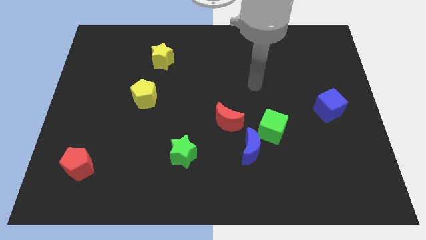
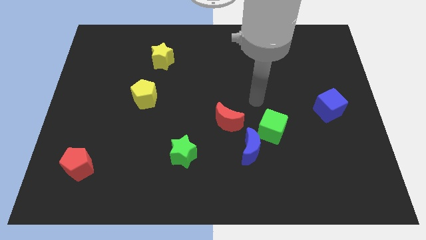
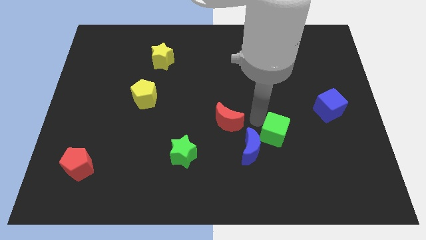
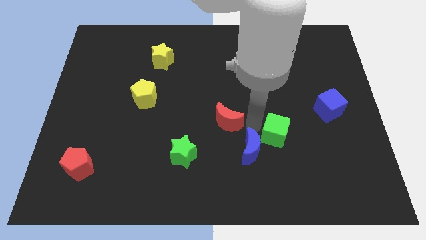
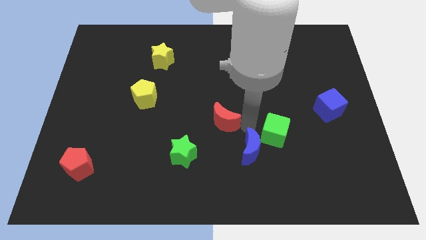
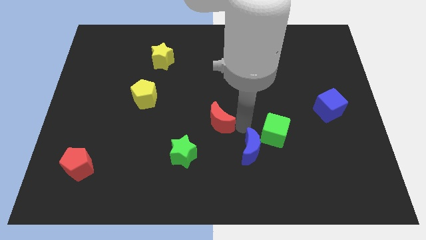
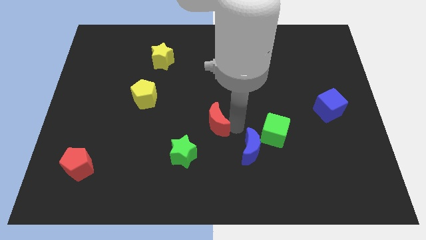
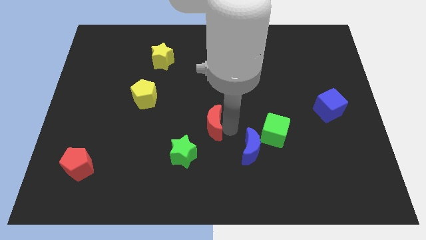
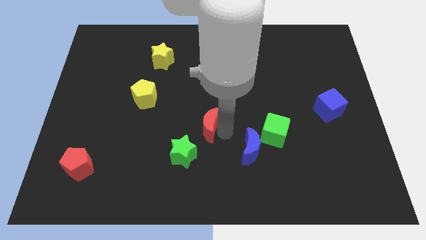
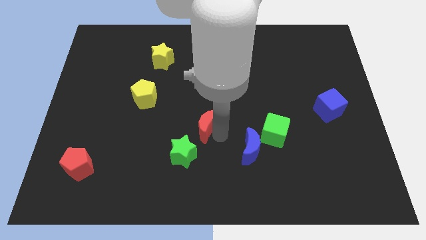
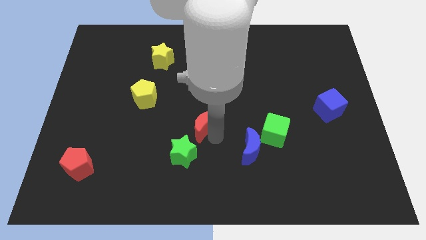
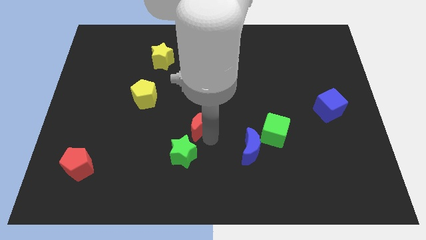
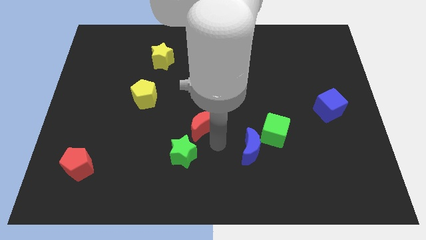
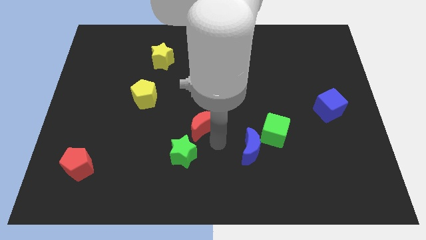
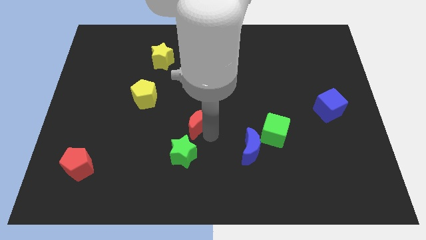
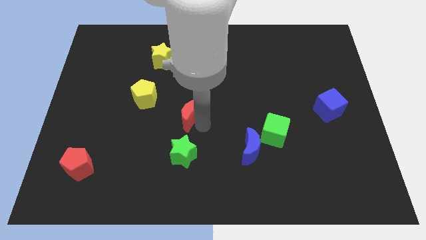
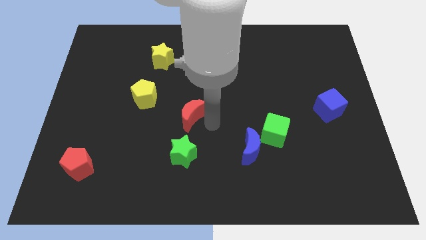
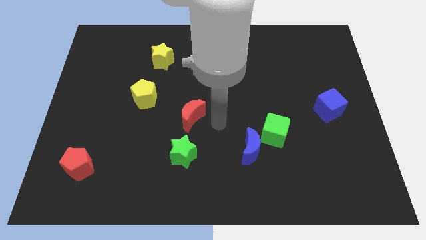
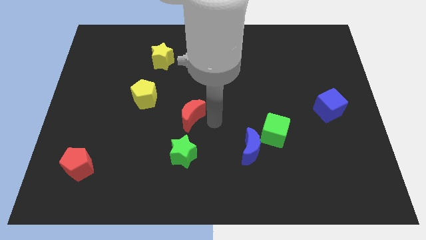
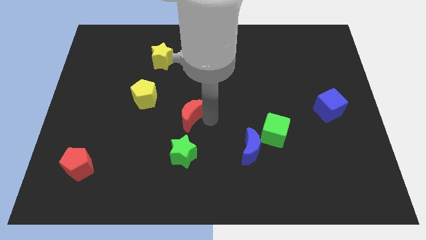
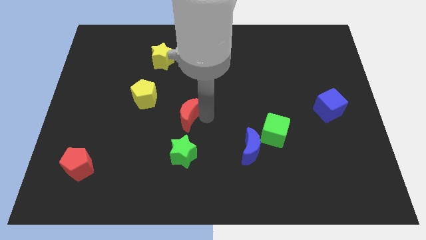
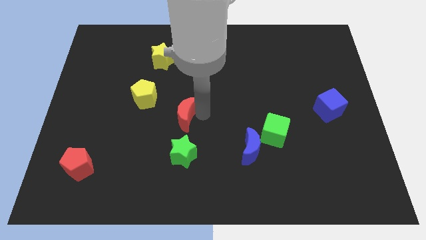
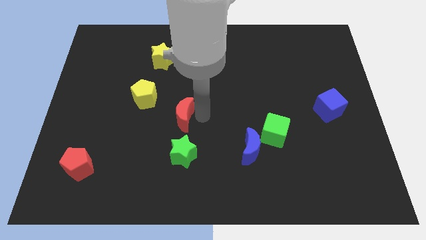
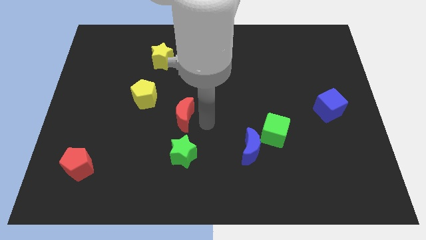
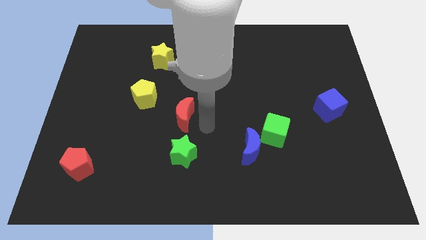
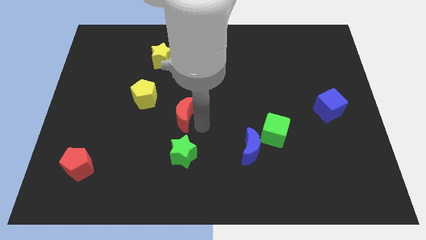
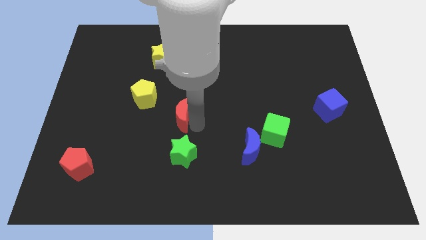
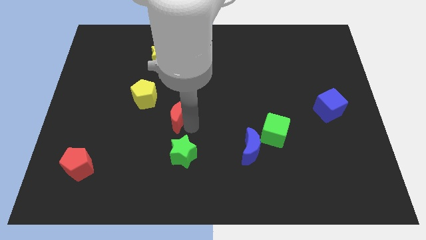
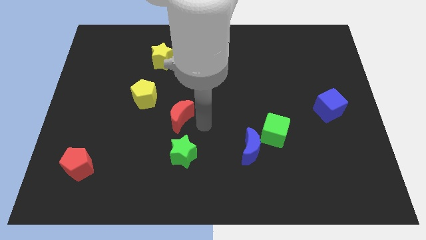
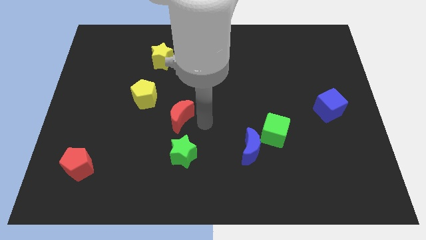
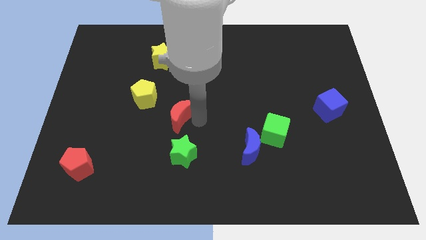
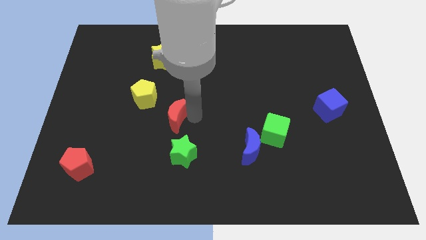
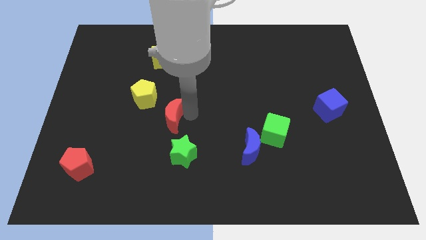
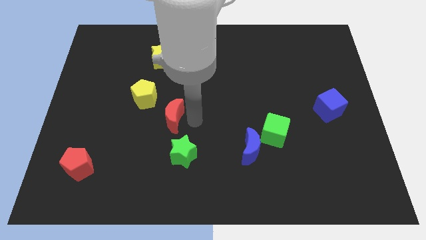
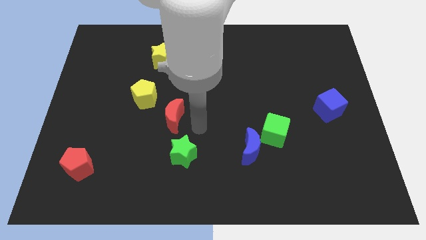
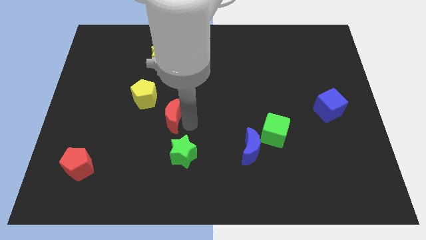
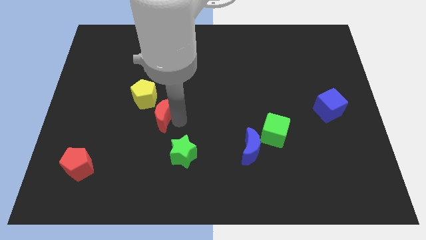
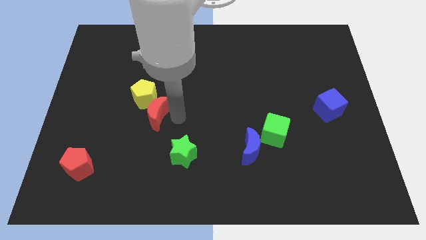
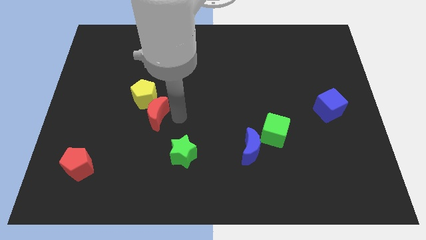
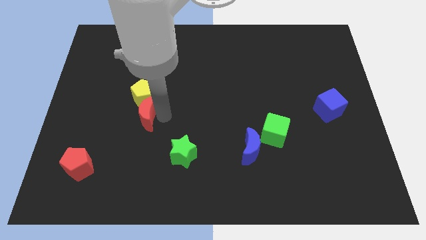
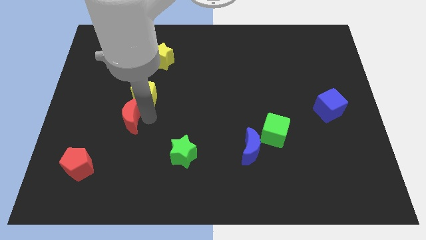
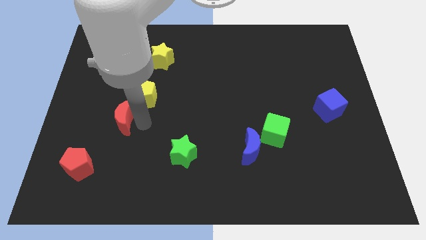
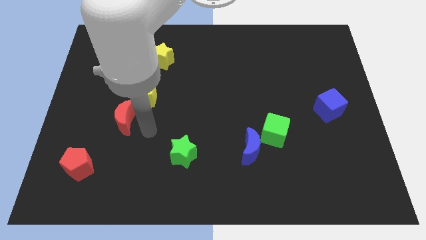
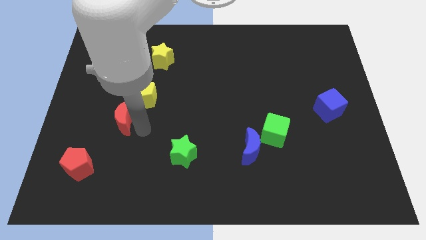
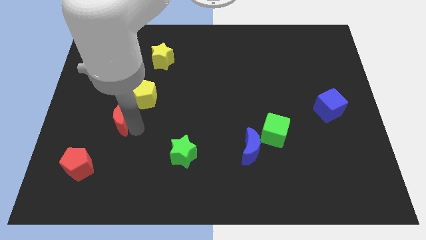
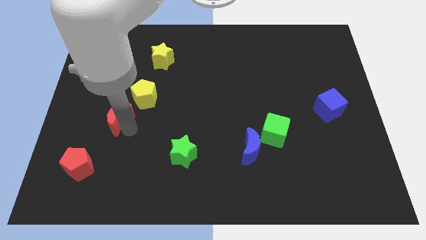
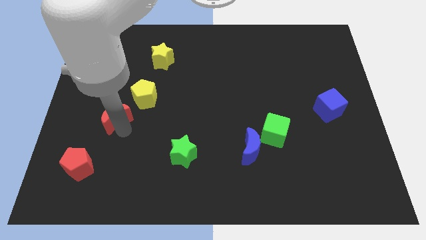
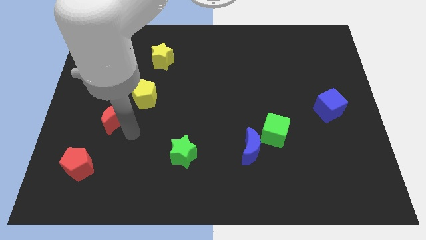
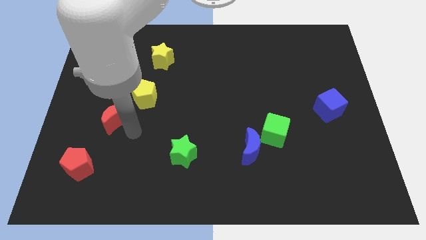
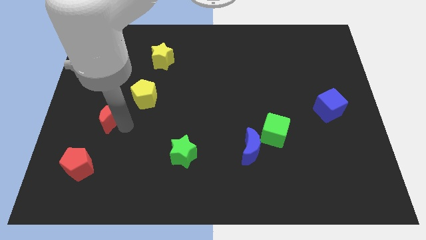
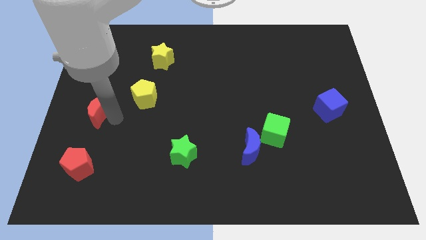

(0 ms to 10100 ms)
move the red moon to the left side

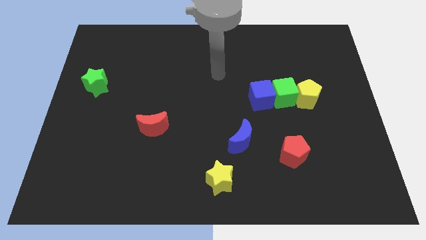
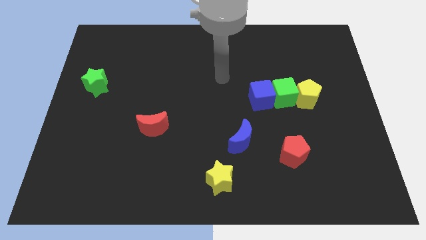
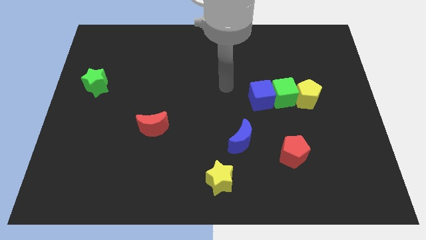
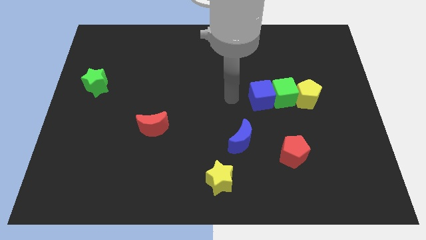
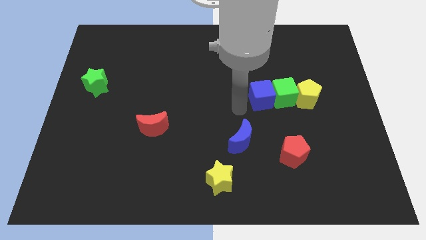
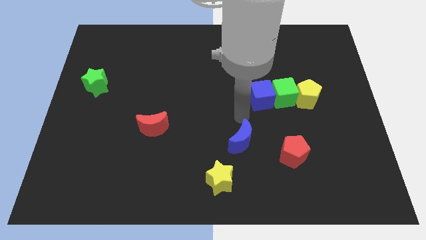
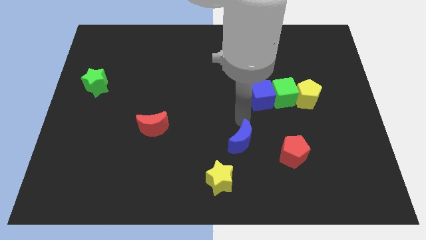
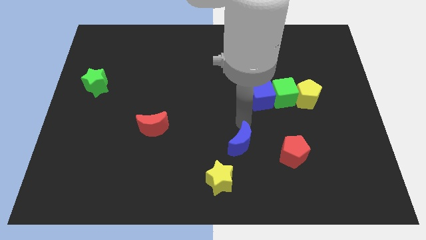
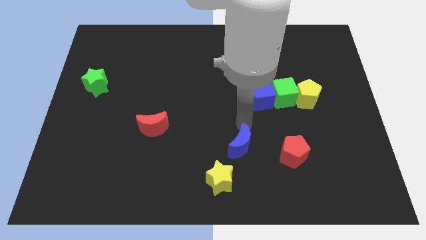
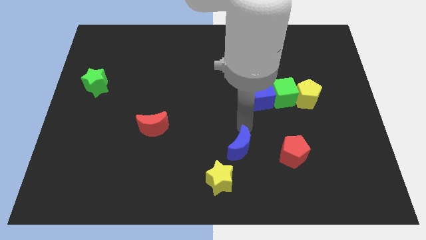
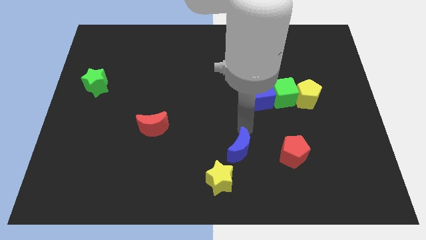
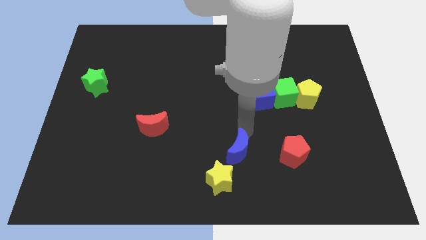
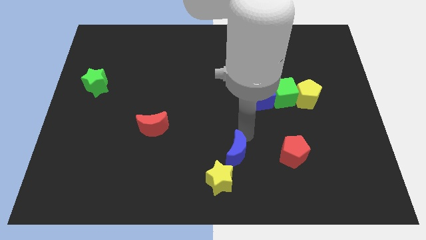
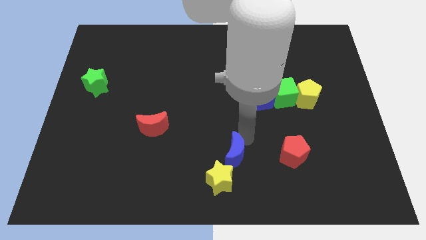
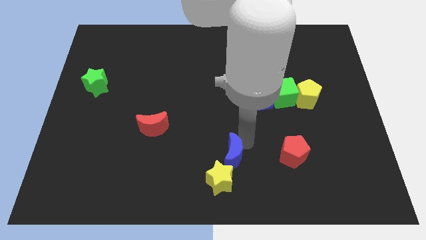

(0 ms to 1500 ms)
push the blue moon to the bottom
